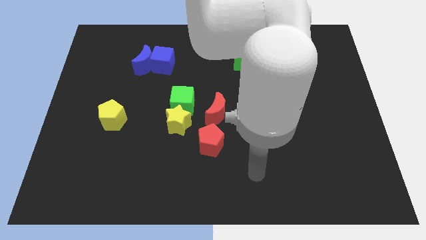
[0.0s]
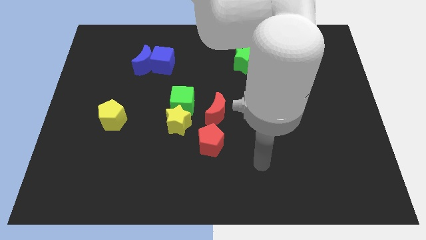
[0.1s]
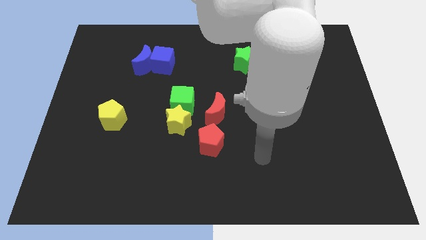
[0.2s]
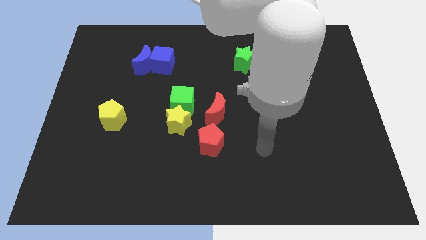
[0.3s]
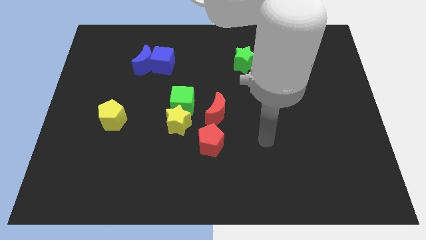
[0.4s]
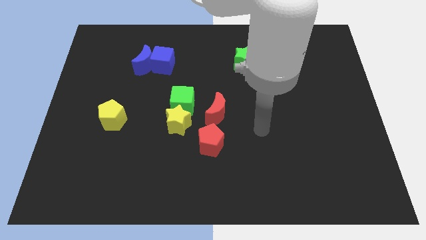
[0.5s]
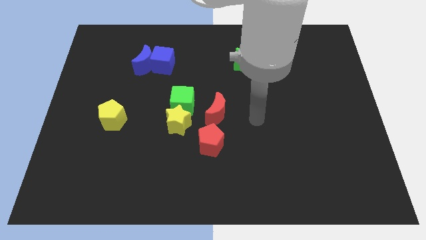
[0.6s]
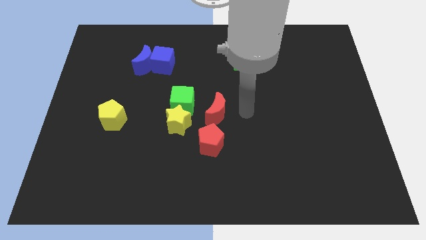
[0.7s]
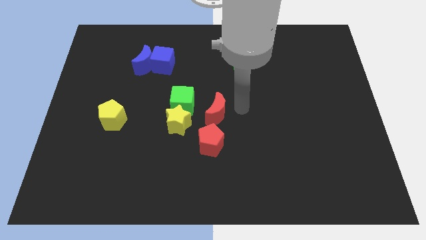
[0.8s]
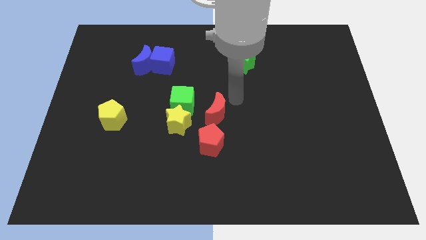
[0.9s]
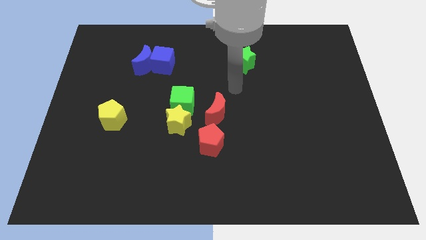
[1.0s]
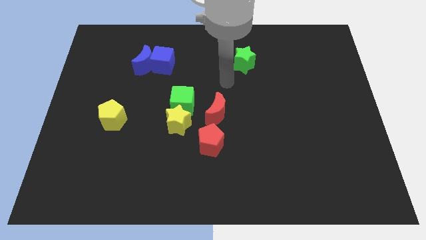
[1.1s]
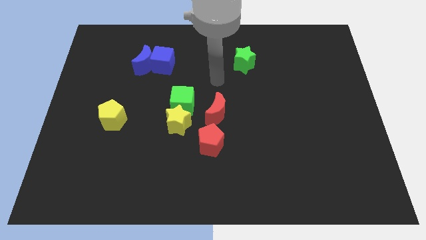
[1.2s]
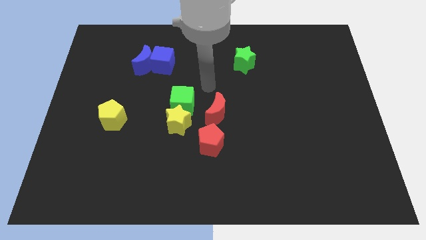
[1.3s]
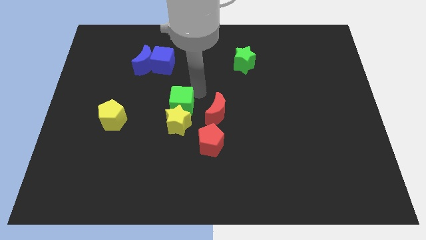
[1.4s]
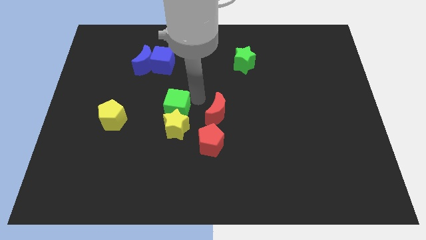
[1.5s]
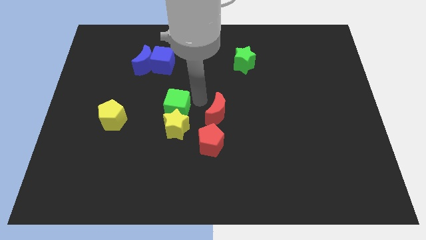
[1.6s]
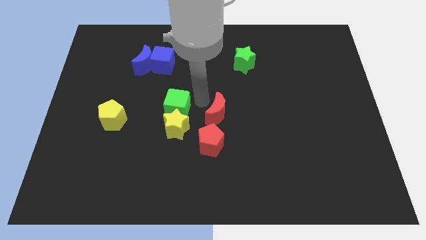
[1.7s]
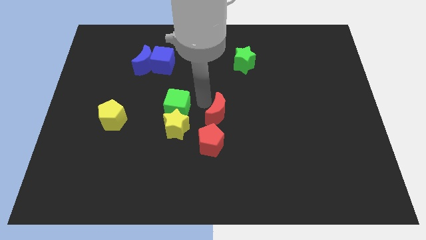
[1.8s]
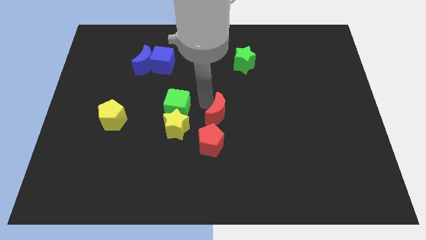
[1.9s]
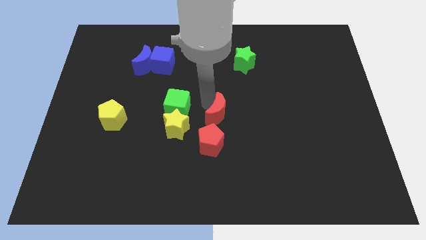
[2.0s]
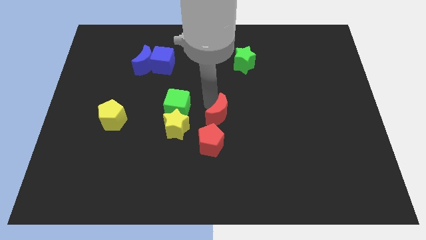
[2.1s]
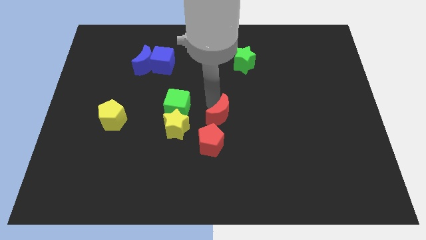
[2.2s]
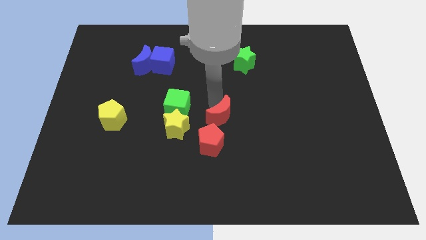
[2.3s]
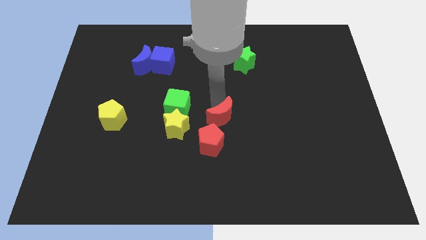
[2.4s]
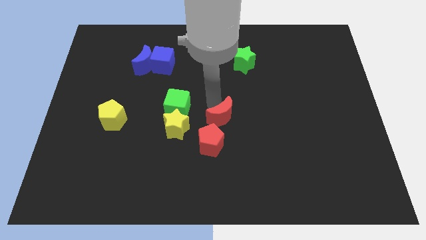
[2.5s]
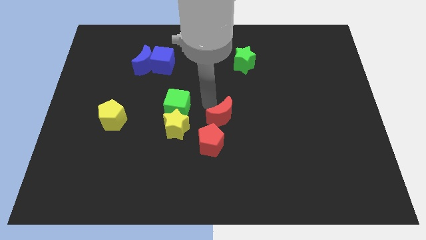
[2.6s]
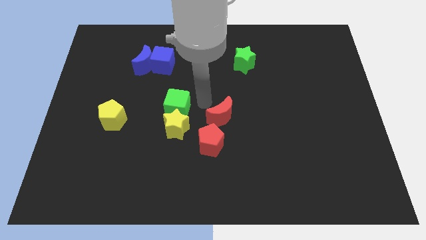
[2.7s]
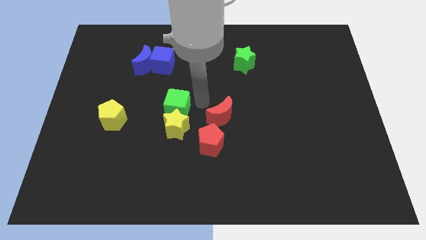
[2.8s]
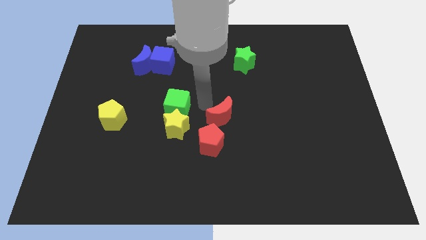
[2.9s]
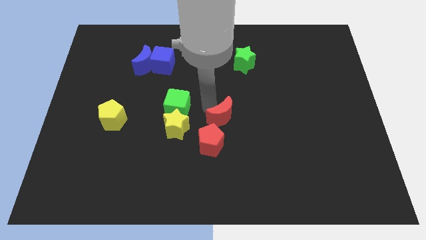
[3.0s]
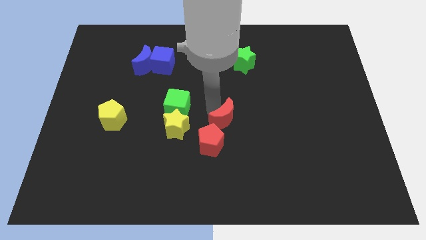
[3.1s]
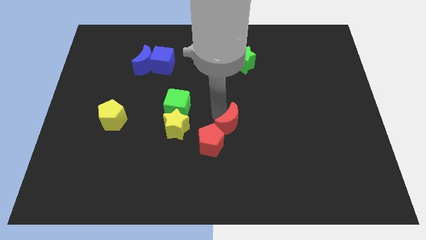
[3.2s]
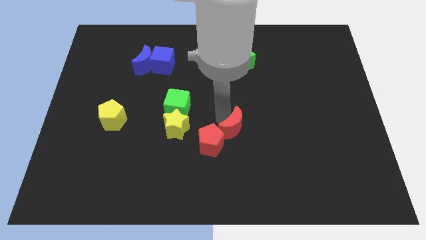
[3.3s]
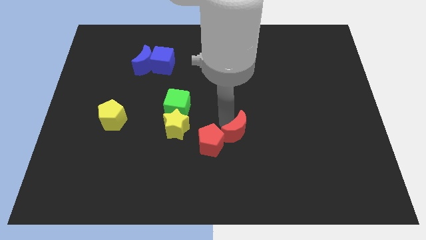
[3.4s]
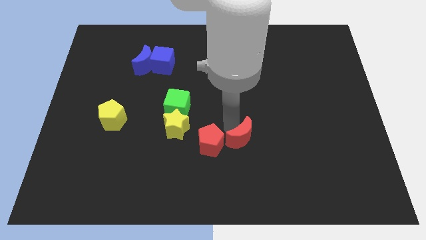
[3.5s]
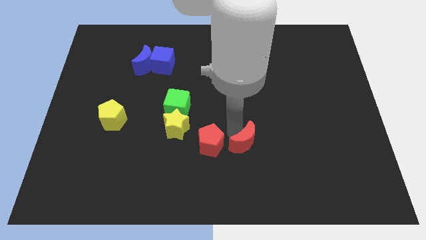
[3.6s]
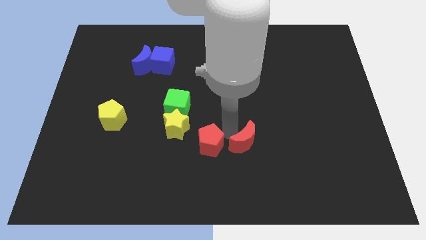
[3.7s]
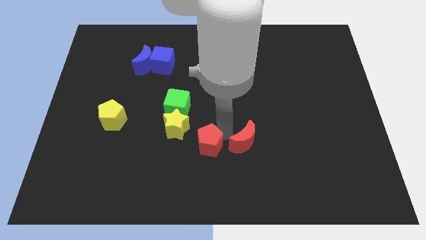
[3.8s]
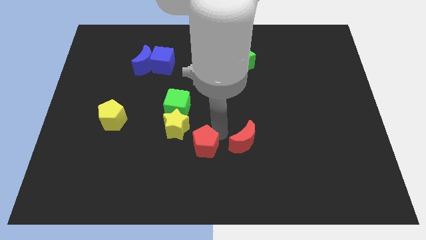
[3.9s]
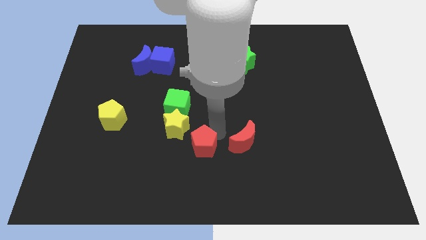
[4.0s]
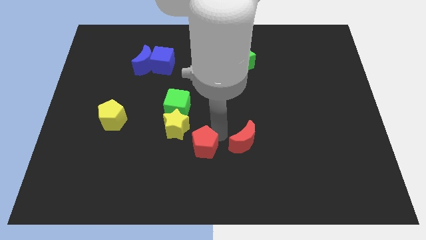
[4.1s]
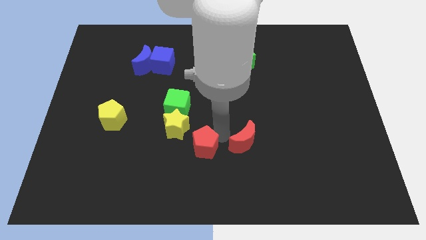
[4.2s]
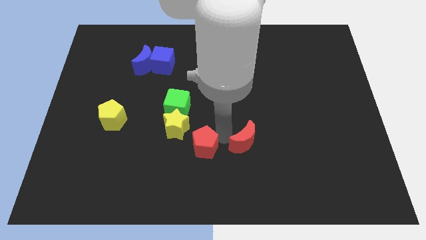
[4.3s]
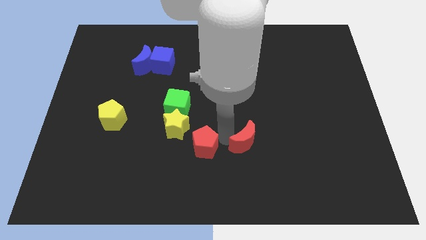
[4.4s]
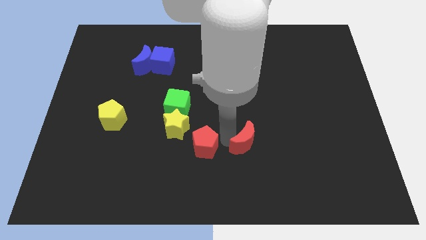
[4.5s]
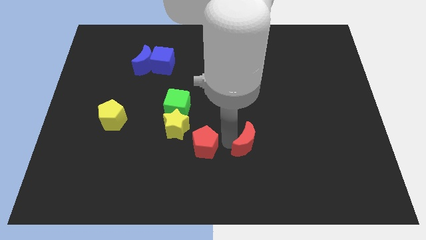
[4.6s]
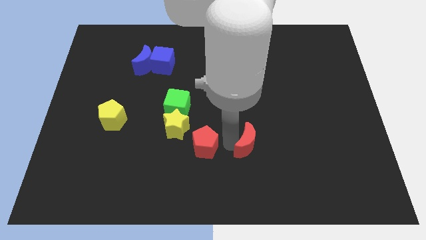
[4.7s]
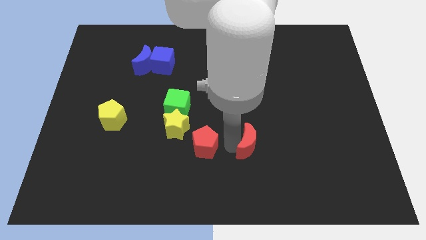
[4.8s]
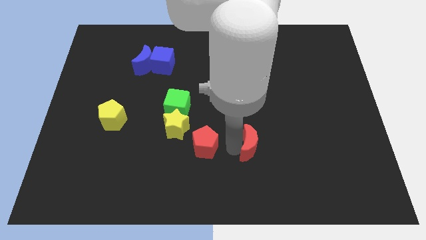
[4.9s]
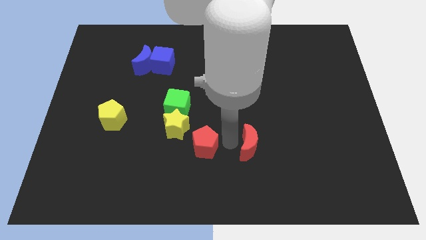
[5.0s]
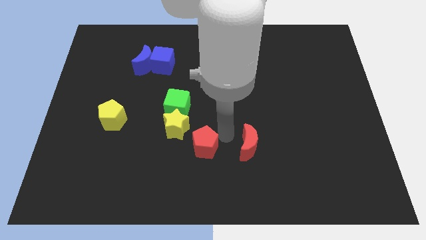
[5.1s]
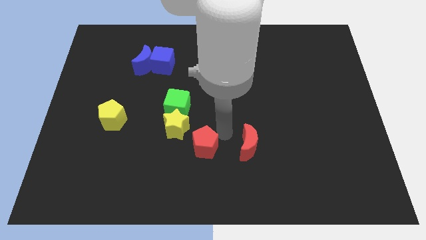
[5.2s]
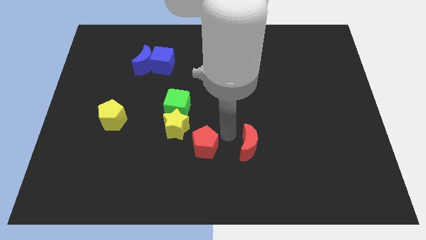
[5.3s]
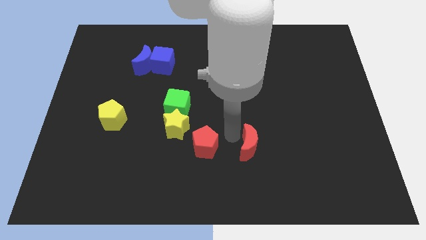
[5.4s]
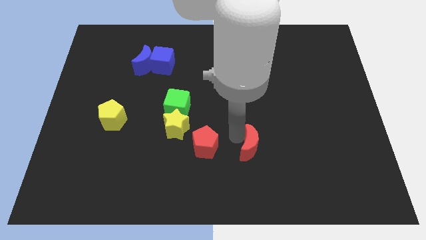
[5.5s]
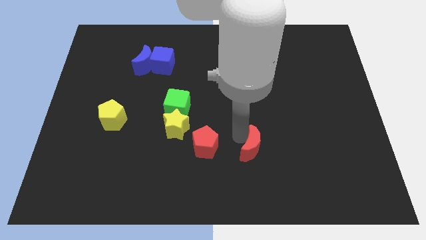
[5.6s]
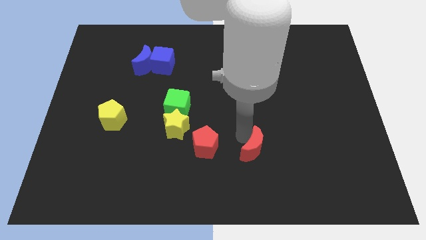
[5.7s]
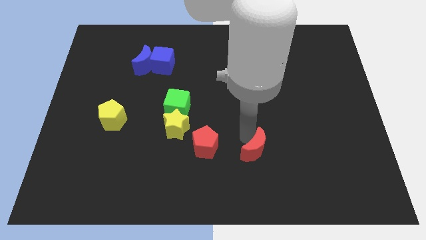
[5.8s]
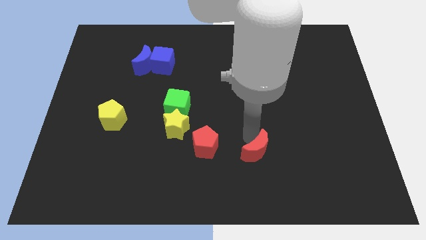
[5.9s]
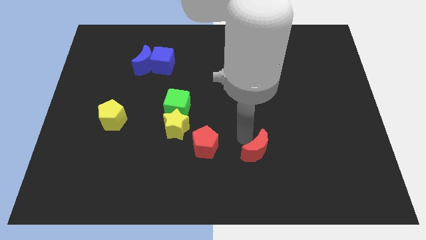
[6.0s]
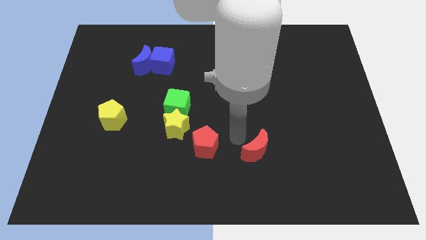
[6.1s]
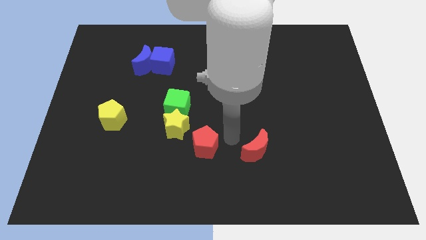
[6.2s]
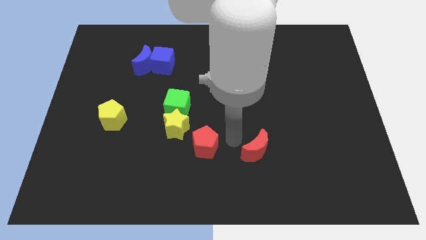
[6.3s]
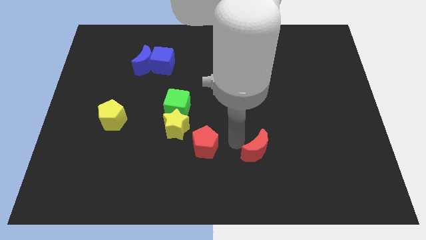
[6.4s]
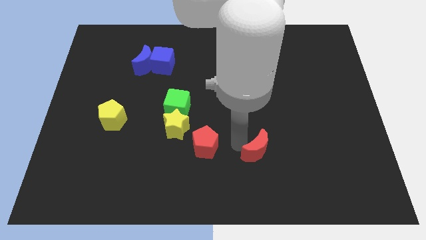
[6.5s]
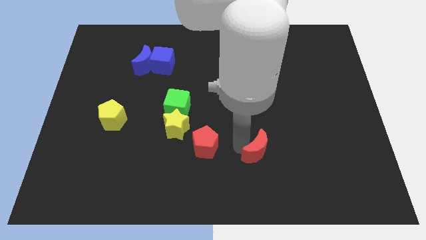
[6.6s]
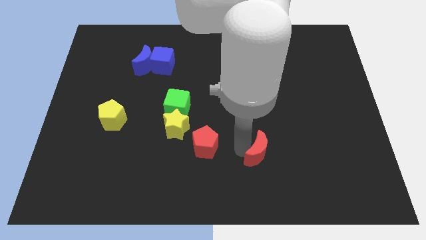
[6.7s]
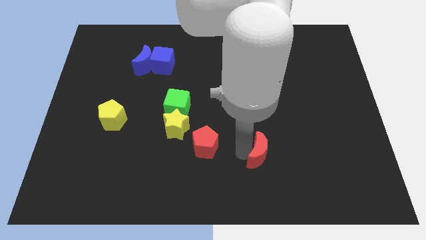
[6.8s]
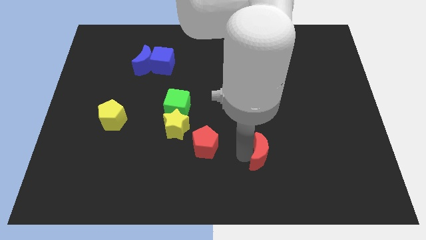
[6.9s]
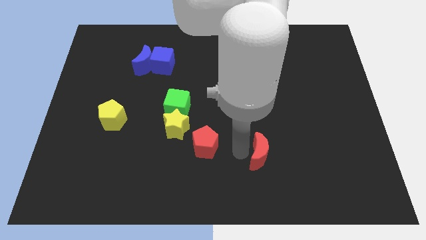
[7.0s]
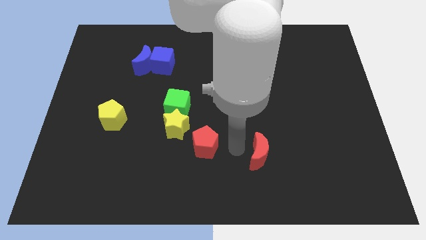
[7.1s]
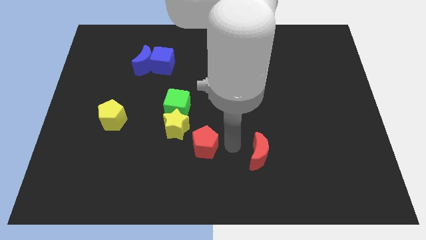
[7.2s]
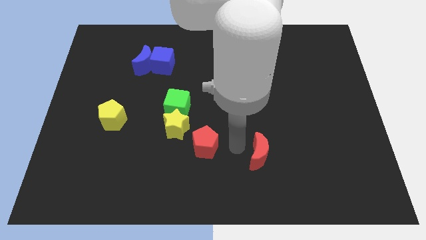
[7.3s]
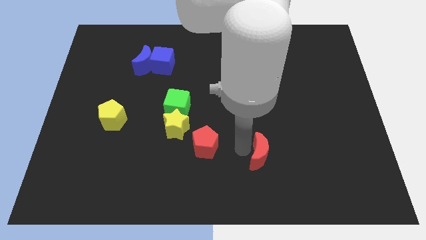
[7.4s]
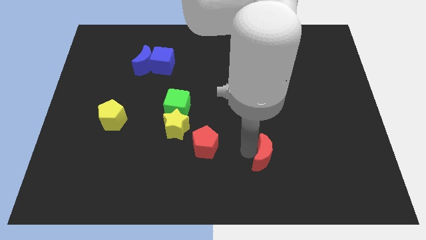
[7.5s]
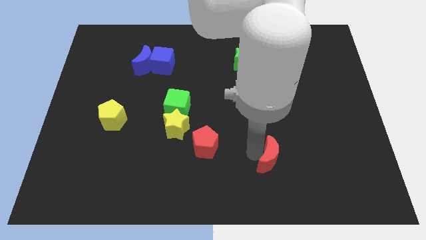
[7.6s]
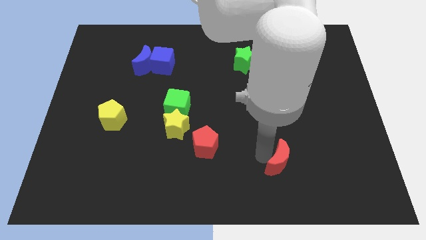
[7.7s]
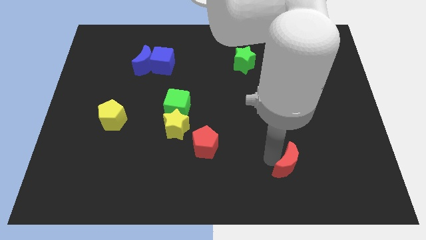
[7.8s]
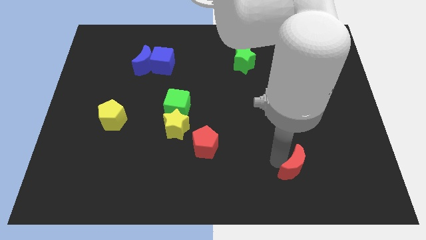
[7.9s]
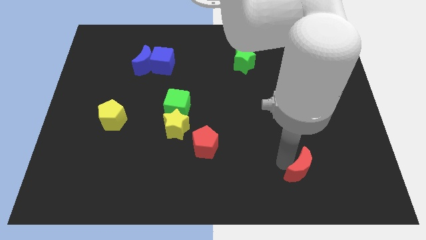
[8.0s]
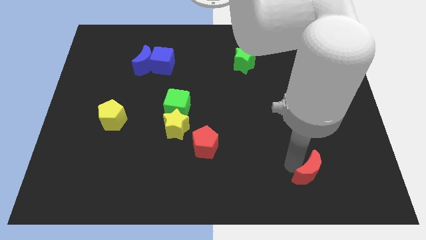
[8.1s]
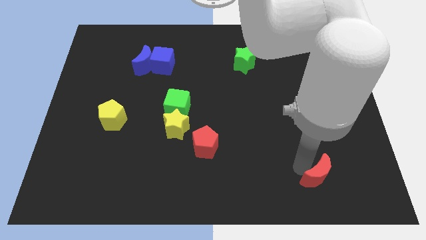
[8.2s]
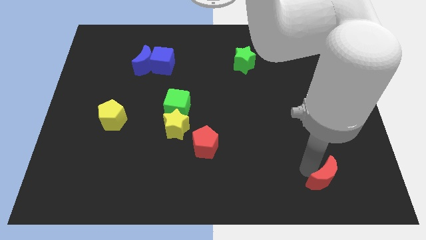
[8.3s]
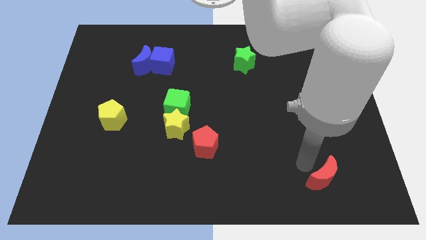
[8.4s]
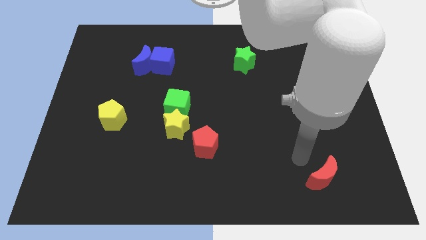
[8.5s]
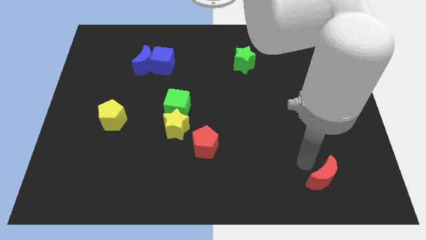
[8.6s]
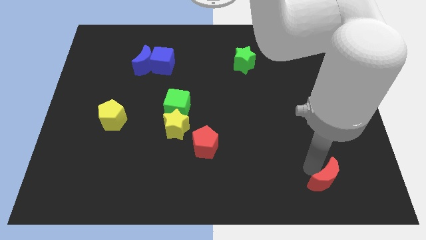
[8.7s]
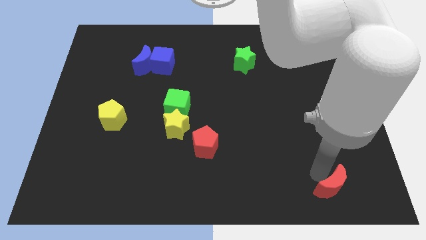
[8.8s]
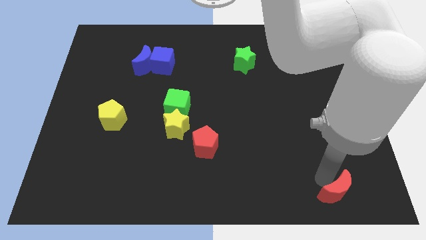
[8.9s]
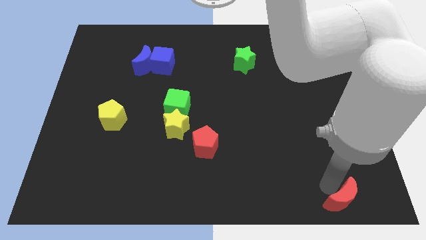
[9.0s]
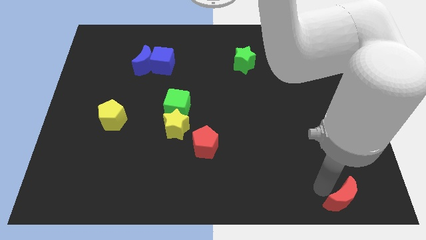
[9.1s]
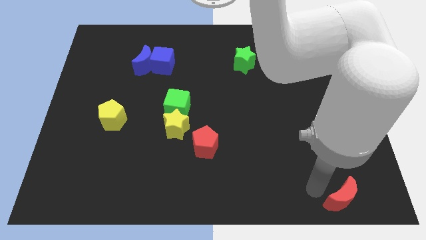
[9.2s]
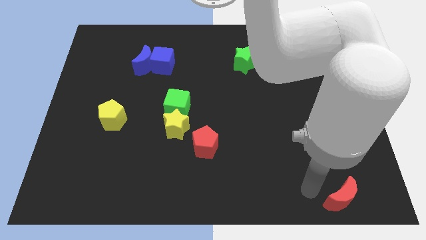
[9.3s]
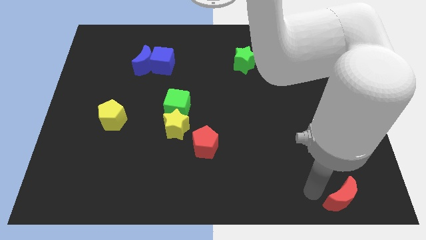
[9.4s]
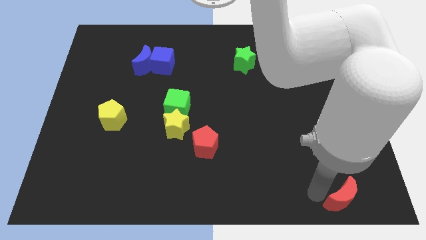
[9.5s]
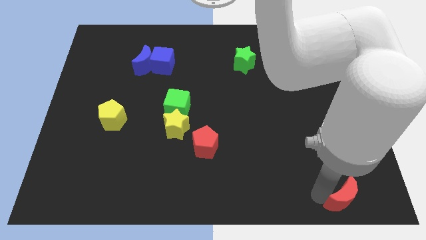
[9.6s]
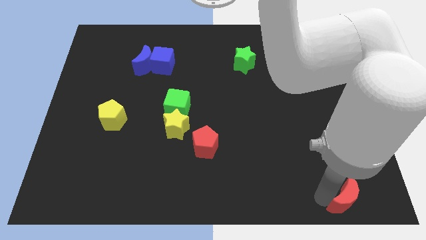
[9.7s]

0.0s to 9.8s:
put the red moon to the lower right corner
